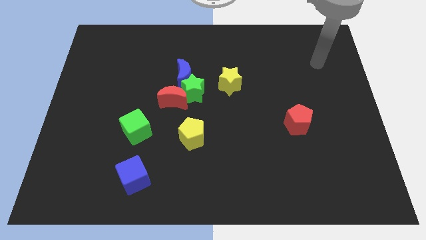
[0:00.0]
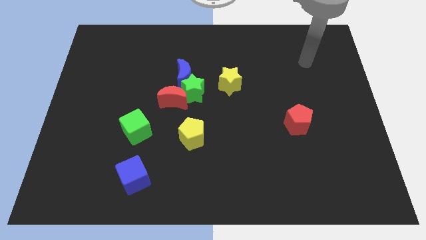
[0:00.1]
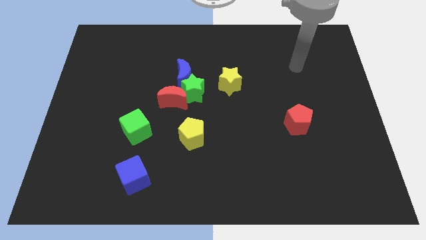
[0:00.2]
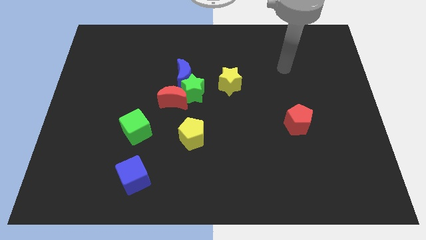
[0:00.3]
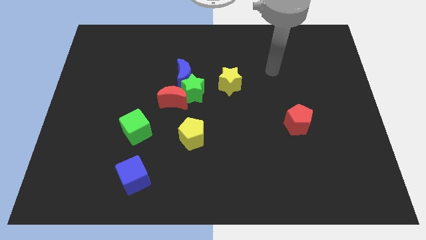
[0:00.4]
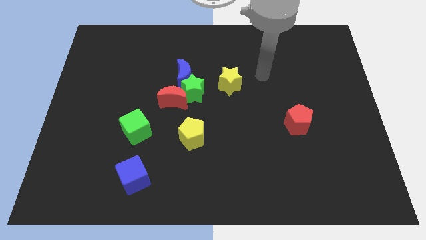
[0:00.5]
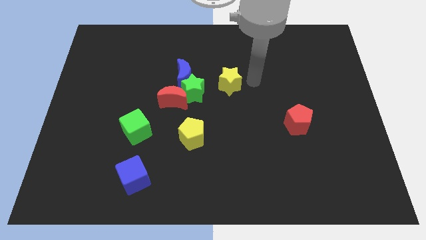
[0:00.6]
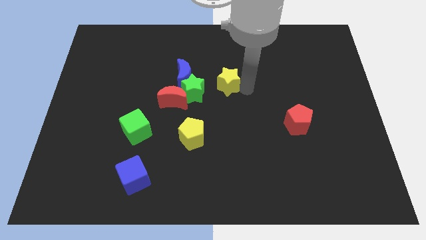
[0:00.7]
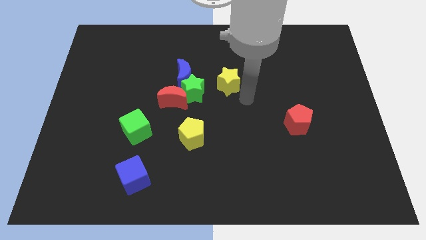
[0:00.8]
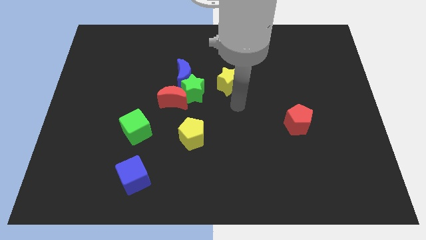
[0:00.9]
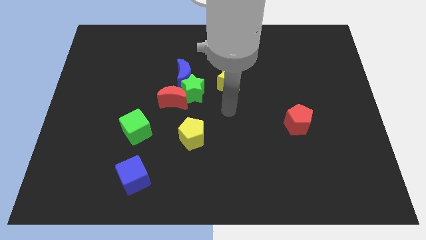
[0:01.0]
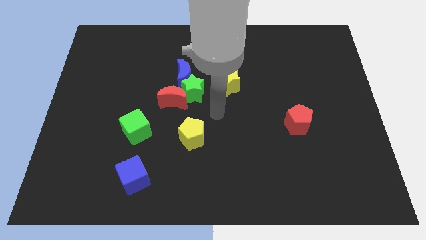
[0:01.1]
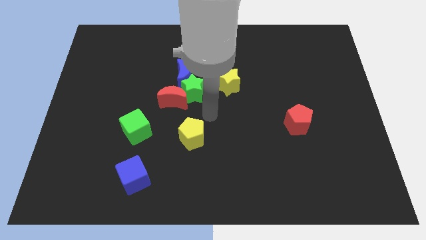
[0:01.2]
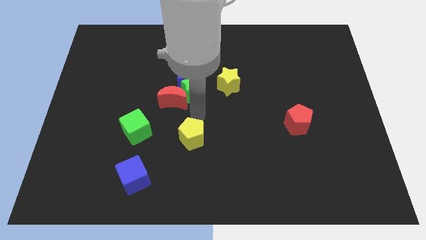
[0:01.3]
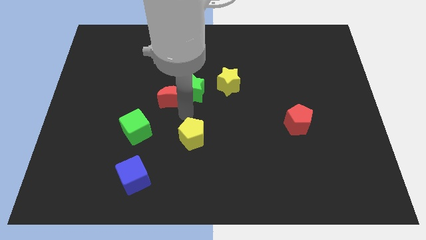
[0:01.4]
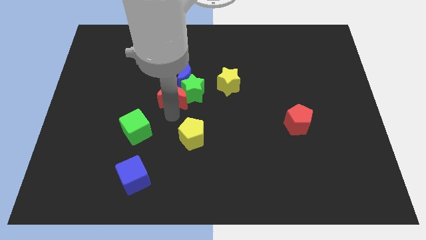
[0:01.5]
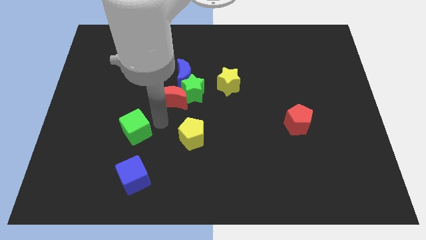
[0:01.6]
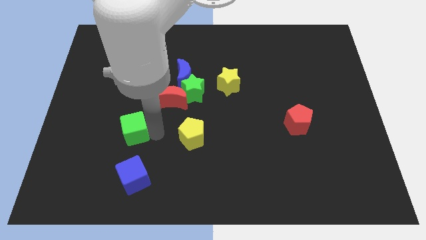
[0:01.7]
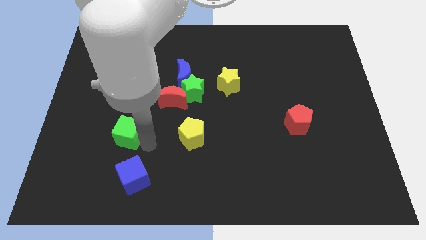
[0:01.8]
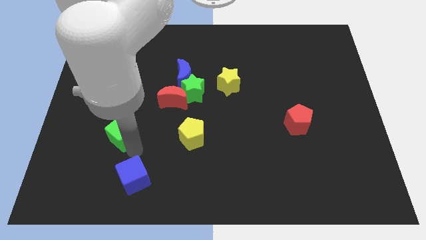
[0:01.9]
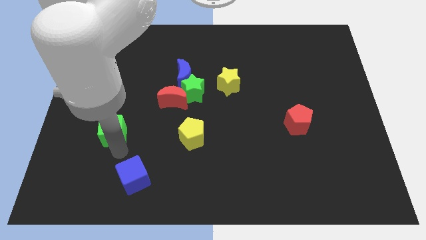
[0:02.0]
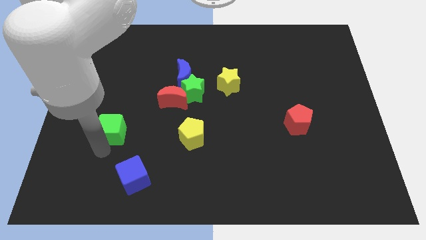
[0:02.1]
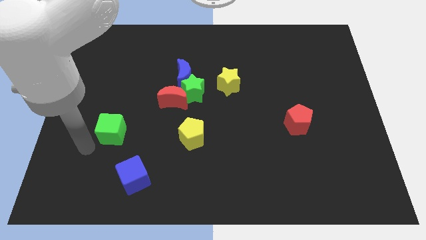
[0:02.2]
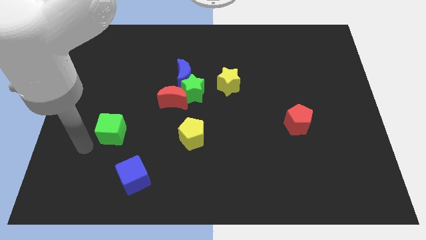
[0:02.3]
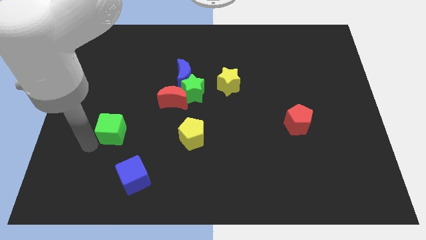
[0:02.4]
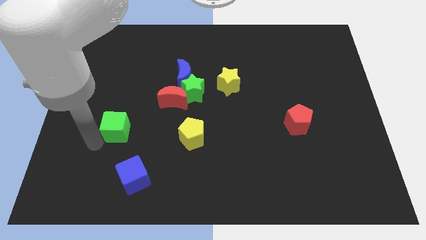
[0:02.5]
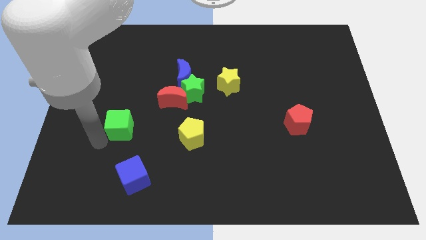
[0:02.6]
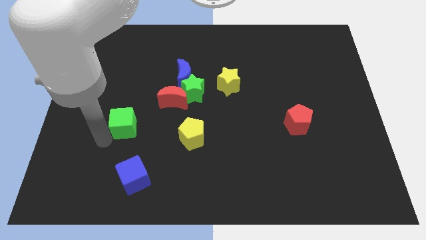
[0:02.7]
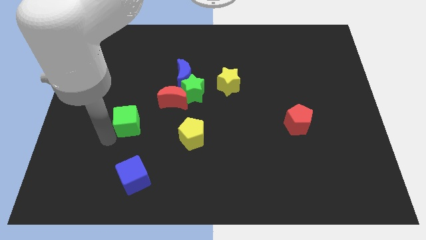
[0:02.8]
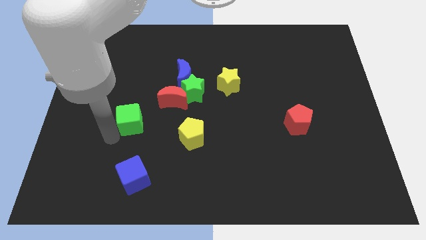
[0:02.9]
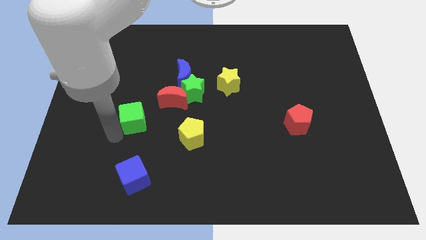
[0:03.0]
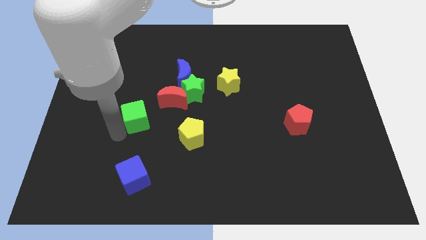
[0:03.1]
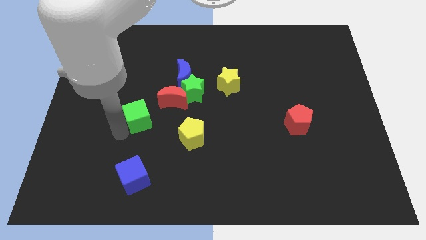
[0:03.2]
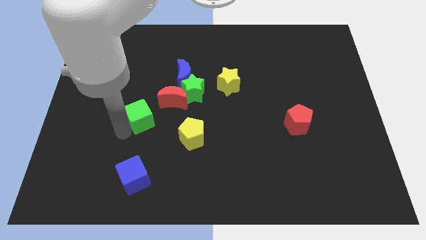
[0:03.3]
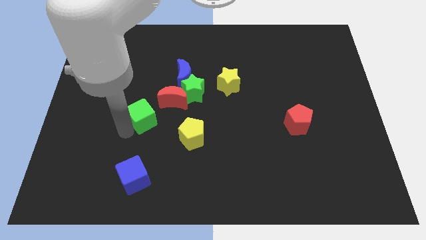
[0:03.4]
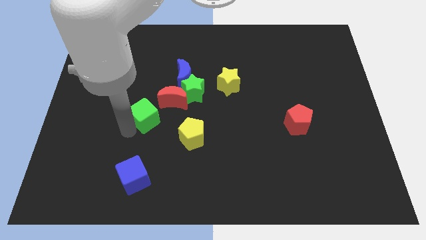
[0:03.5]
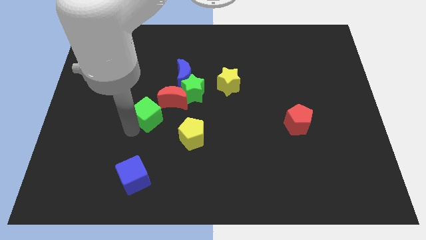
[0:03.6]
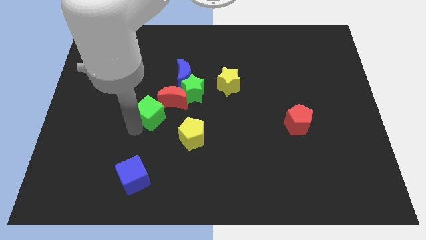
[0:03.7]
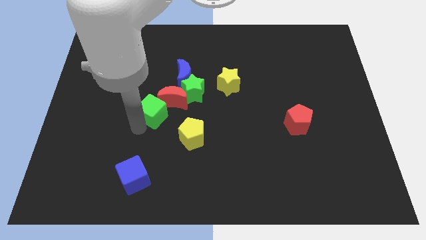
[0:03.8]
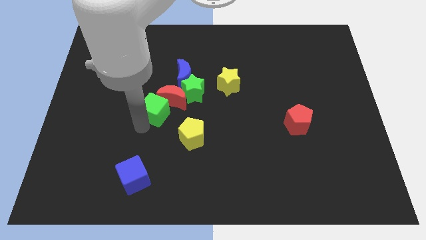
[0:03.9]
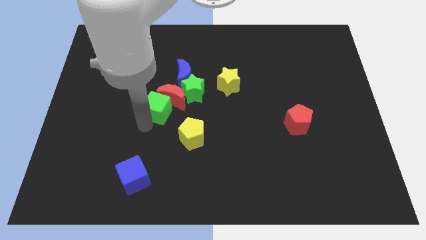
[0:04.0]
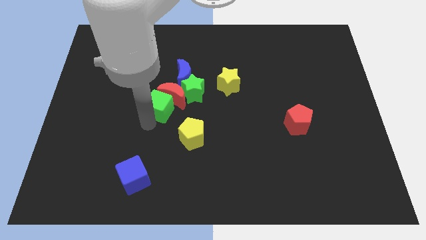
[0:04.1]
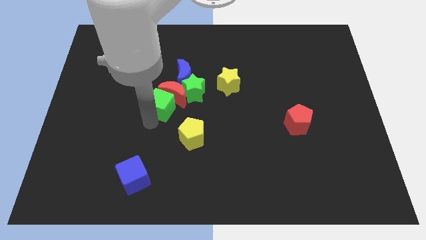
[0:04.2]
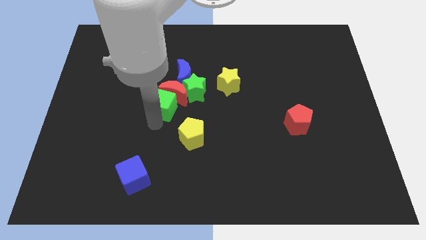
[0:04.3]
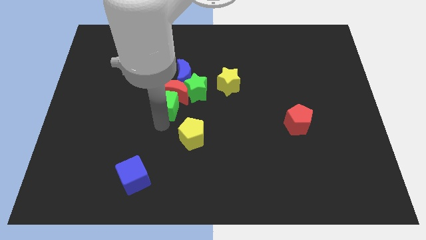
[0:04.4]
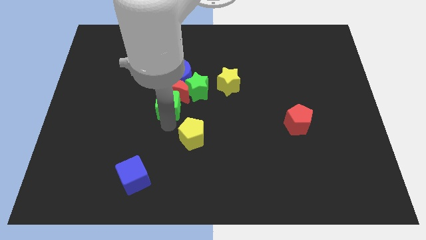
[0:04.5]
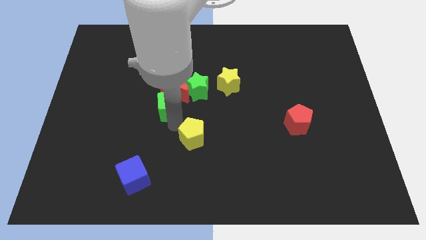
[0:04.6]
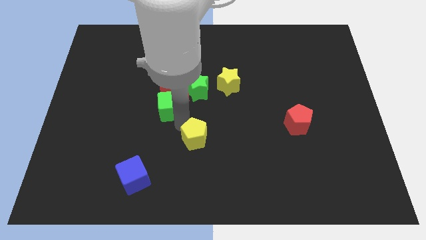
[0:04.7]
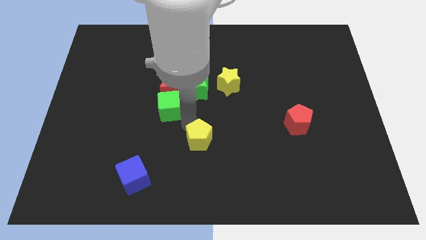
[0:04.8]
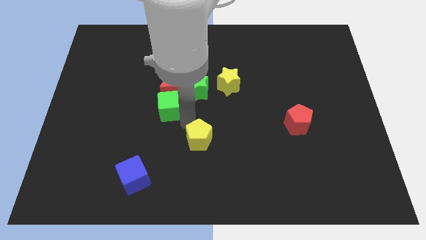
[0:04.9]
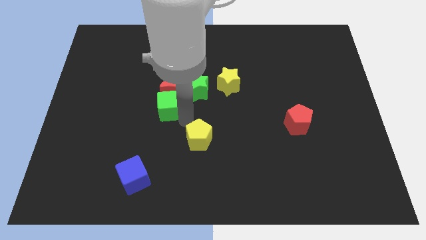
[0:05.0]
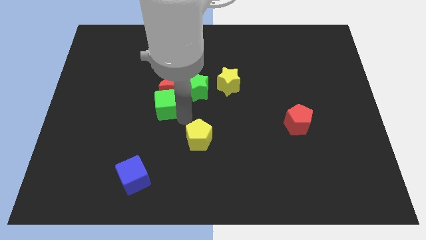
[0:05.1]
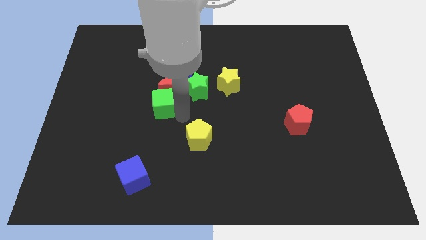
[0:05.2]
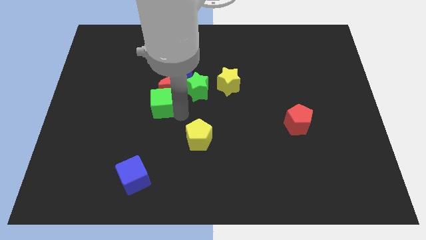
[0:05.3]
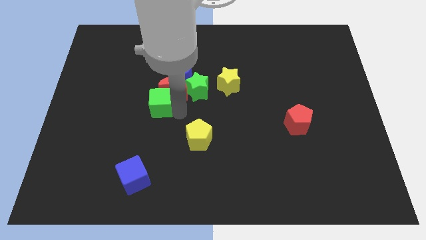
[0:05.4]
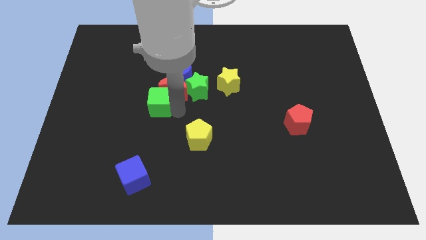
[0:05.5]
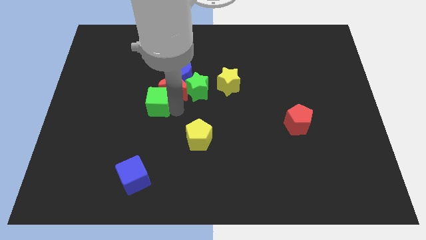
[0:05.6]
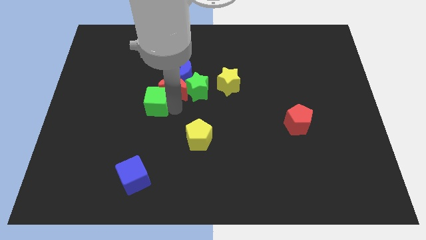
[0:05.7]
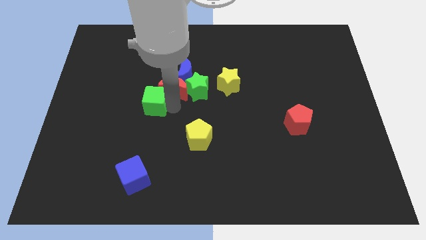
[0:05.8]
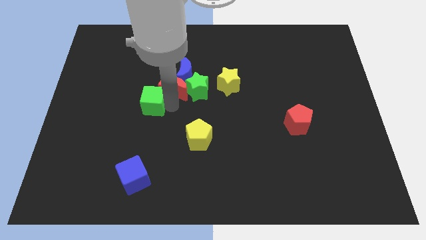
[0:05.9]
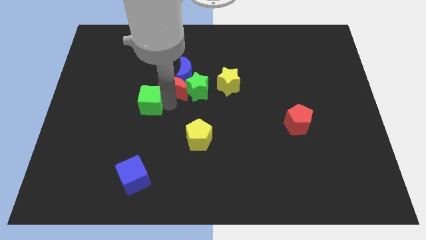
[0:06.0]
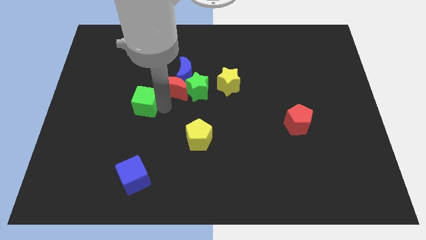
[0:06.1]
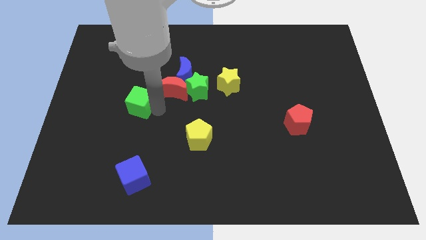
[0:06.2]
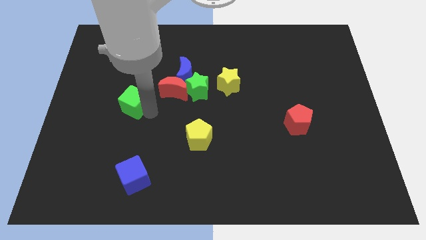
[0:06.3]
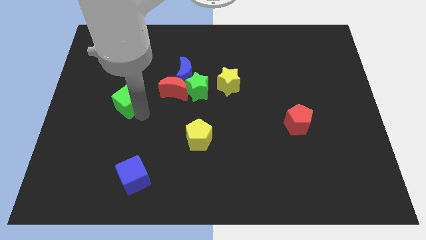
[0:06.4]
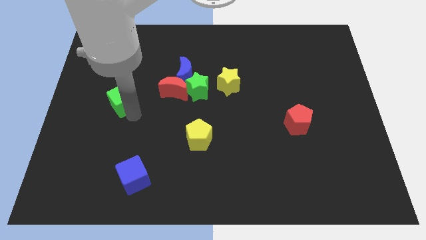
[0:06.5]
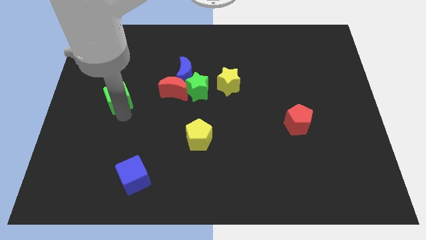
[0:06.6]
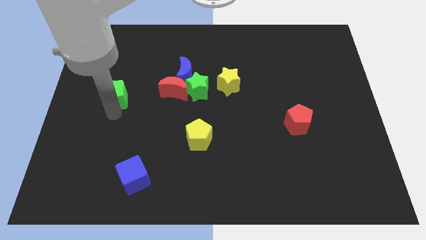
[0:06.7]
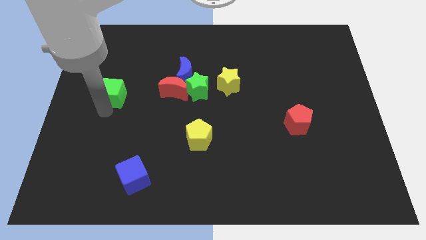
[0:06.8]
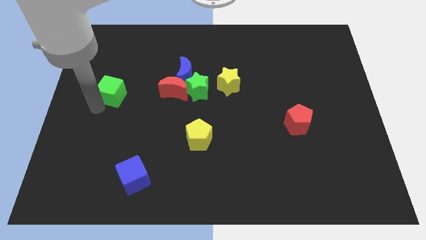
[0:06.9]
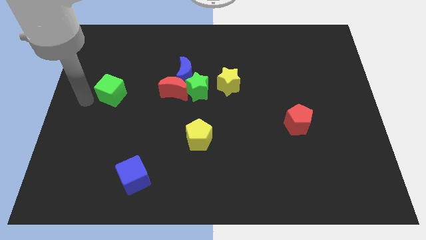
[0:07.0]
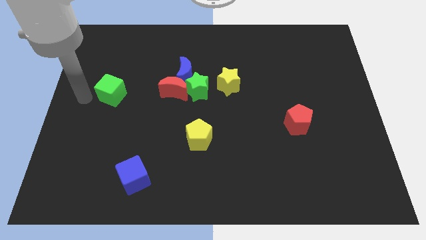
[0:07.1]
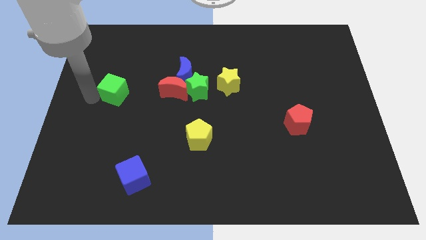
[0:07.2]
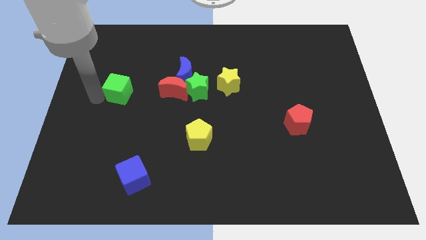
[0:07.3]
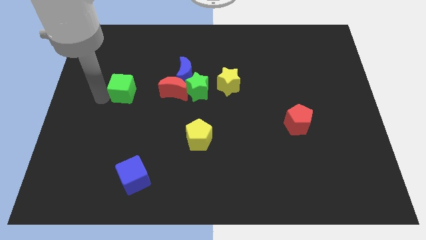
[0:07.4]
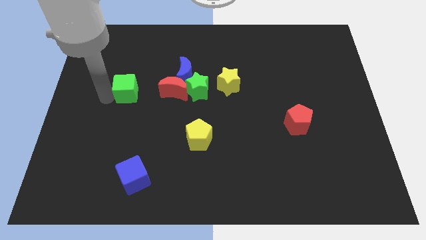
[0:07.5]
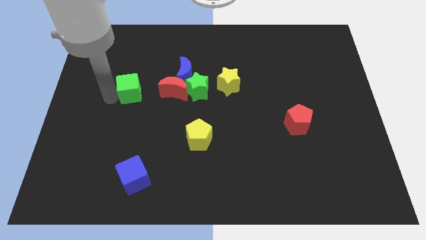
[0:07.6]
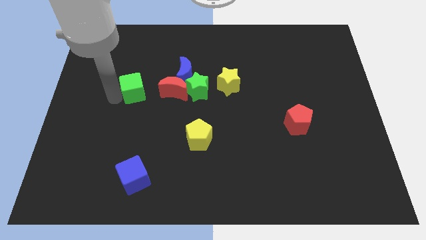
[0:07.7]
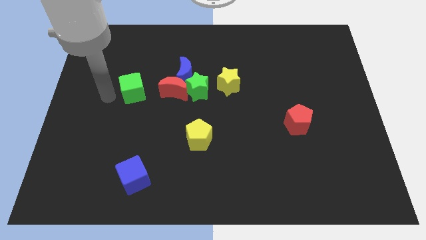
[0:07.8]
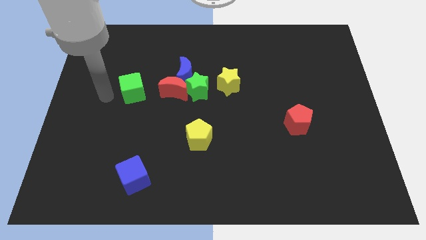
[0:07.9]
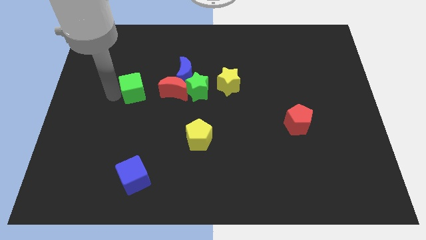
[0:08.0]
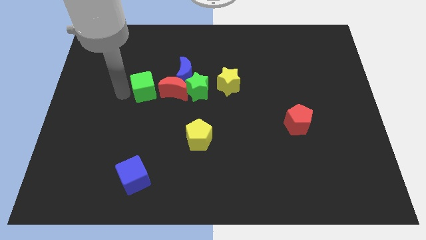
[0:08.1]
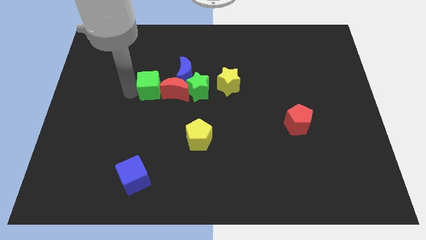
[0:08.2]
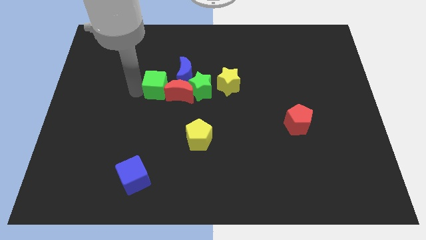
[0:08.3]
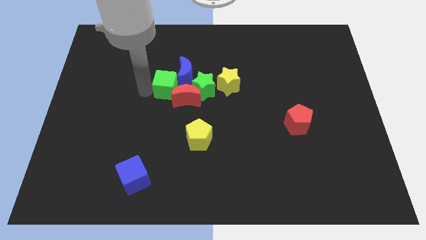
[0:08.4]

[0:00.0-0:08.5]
push the green cube close to the blue moon
